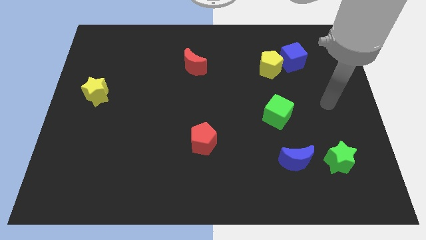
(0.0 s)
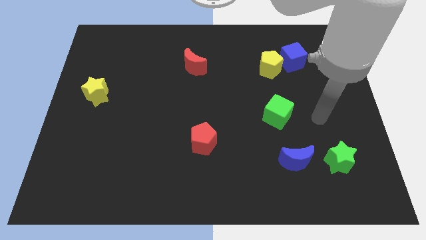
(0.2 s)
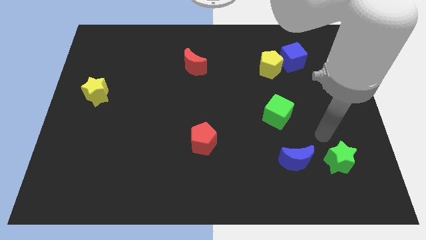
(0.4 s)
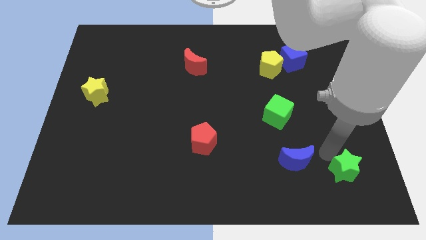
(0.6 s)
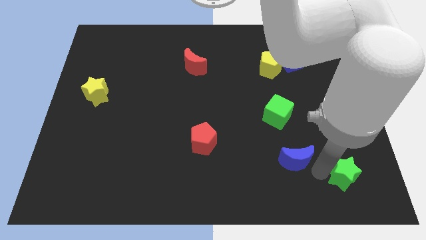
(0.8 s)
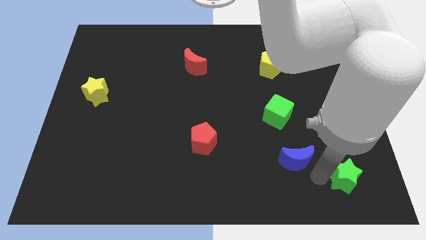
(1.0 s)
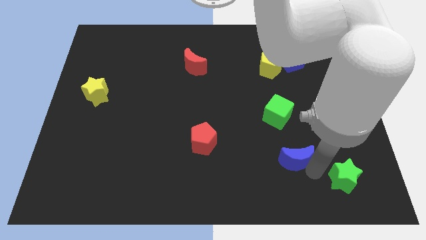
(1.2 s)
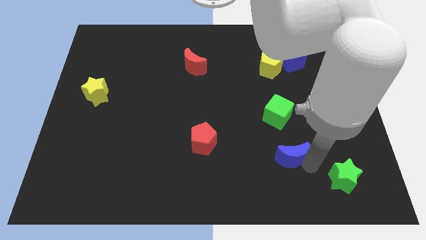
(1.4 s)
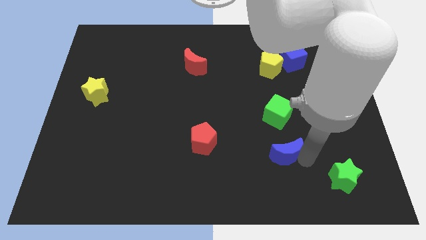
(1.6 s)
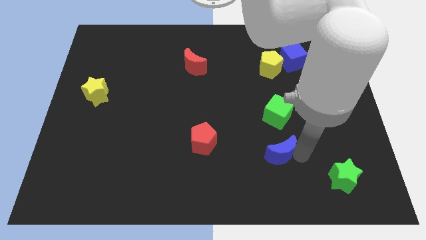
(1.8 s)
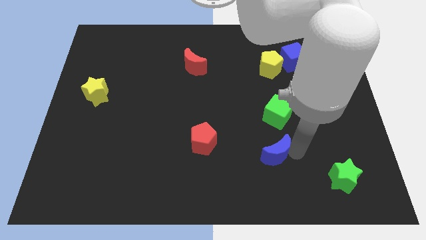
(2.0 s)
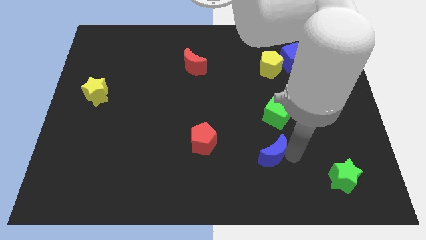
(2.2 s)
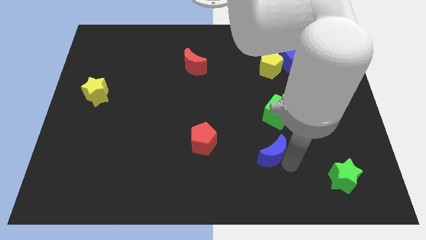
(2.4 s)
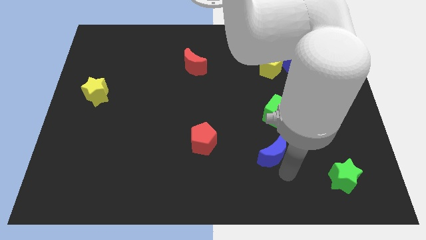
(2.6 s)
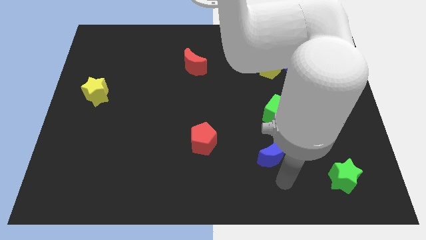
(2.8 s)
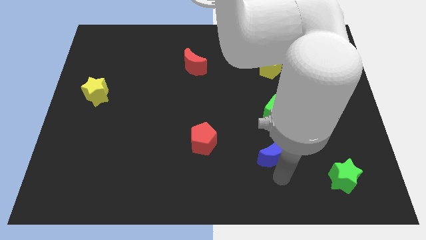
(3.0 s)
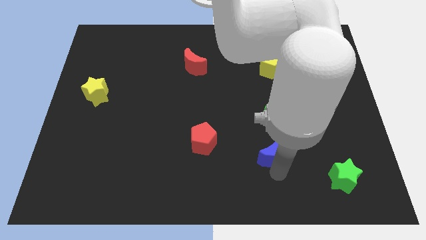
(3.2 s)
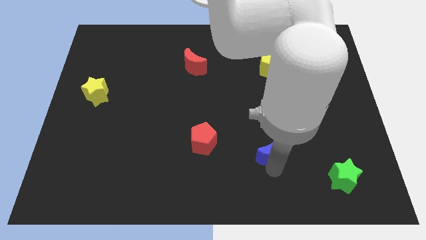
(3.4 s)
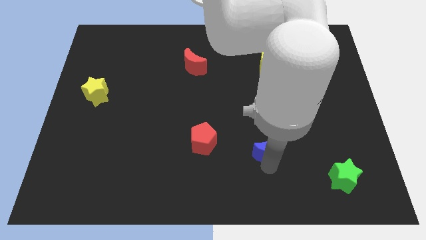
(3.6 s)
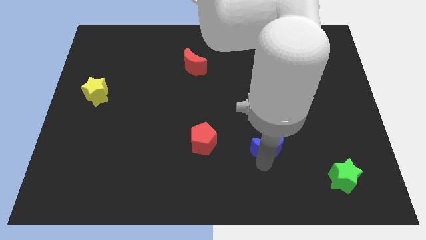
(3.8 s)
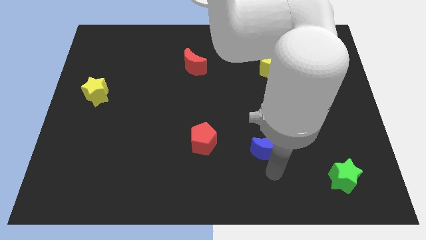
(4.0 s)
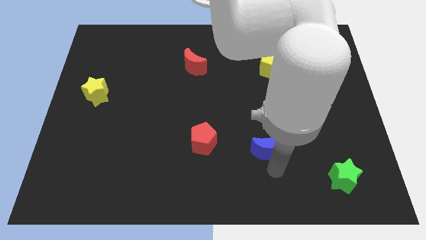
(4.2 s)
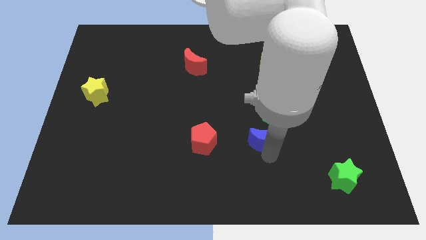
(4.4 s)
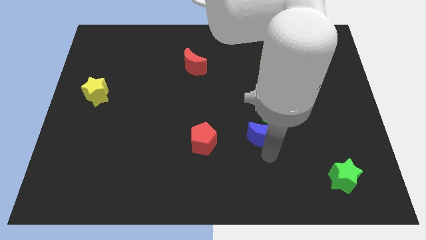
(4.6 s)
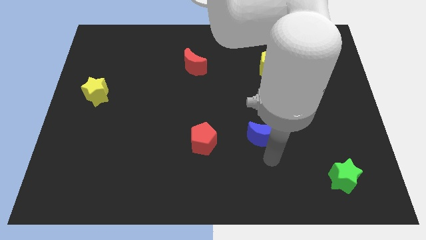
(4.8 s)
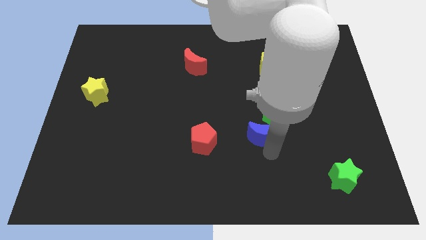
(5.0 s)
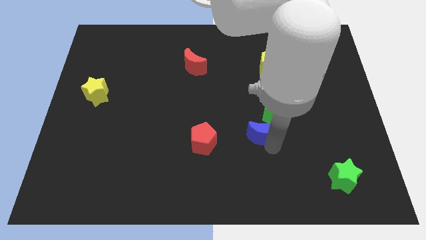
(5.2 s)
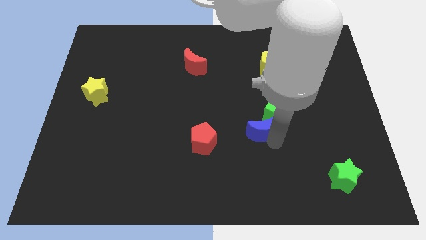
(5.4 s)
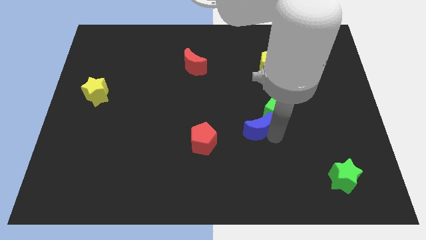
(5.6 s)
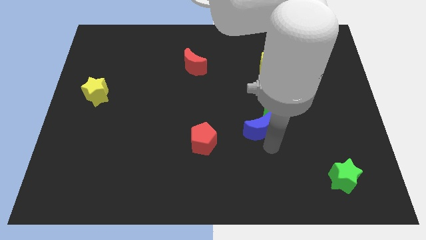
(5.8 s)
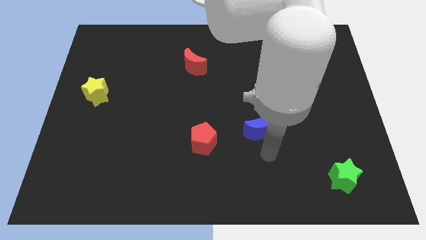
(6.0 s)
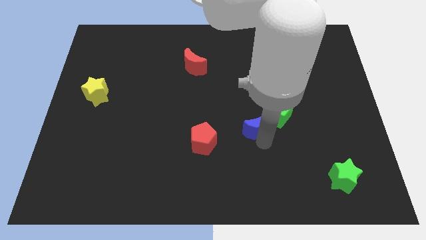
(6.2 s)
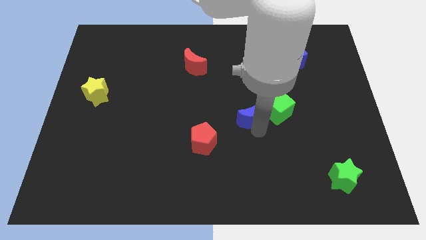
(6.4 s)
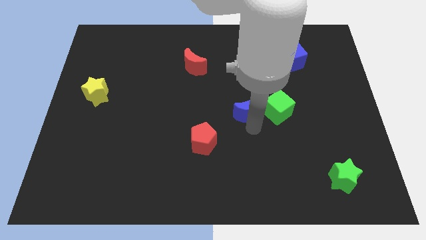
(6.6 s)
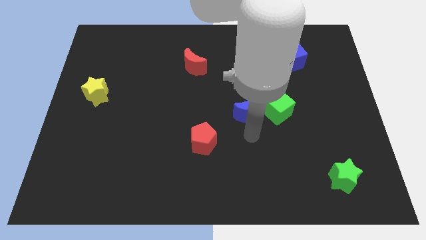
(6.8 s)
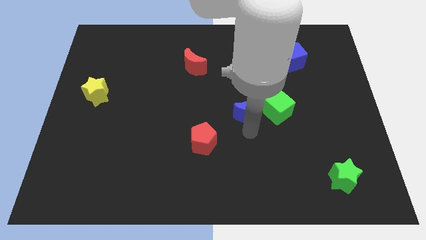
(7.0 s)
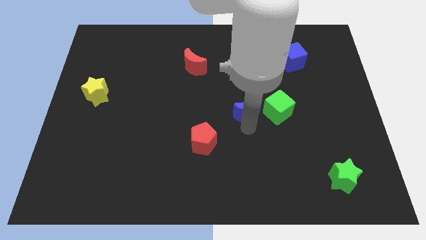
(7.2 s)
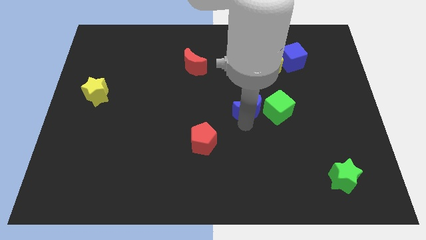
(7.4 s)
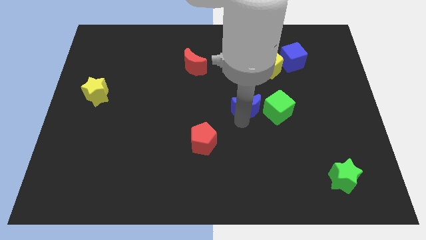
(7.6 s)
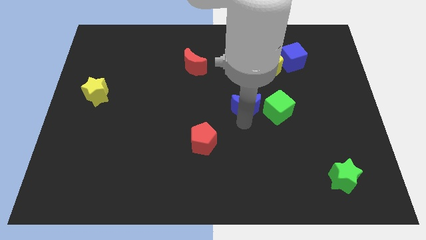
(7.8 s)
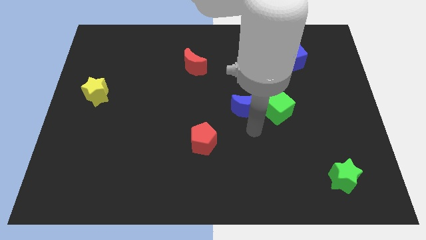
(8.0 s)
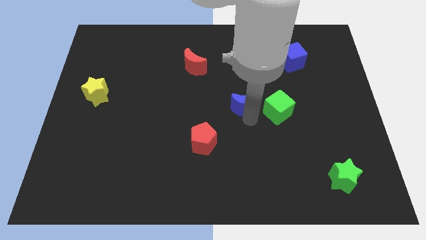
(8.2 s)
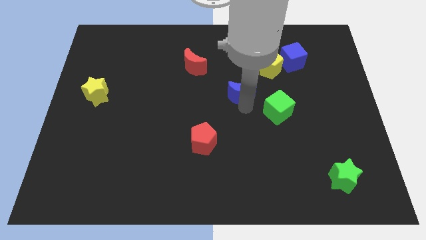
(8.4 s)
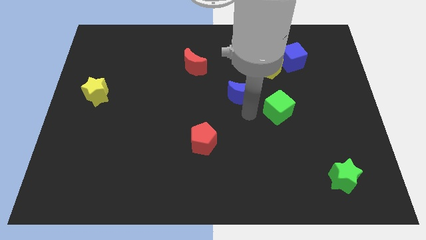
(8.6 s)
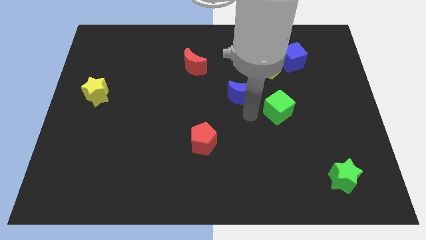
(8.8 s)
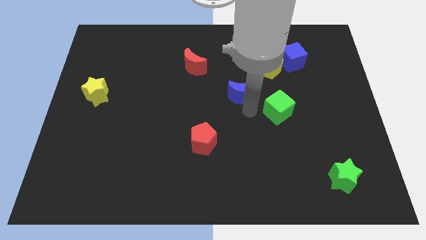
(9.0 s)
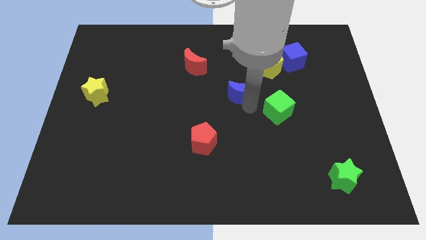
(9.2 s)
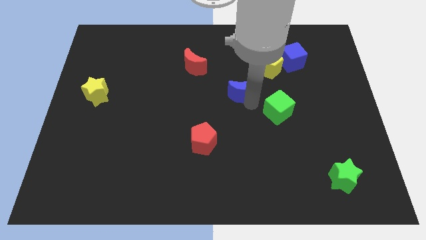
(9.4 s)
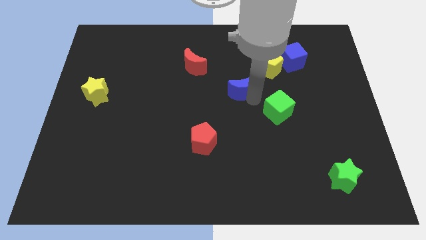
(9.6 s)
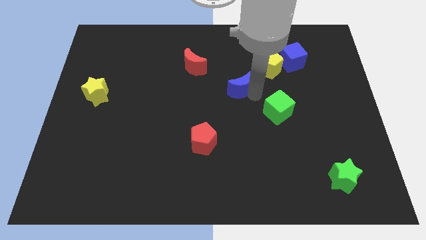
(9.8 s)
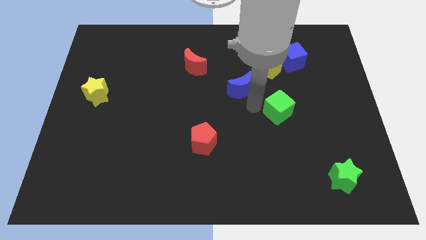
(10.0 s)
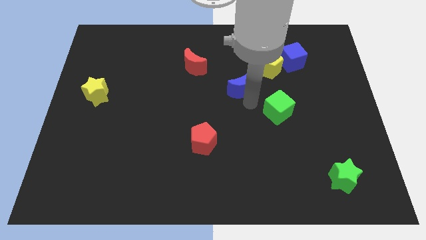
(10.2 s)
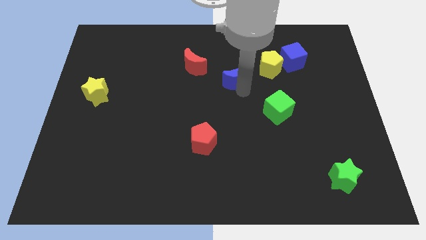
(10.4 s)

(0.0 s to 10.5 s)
slide the blue moon left of the yellow pentagon

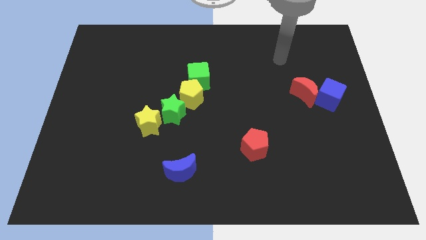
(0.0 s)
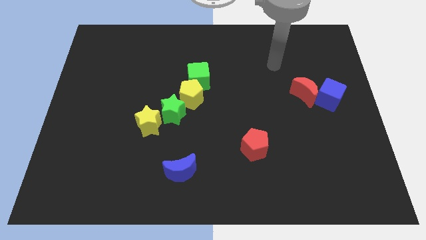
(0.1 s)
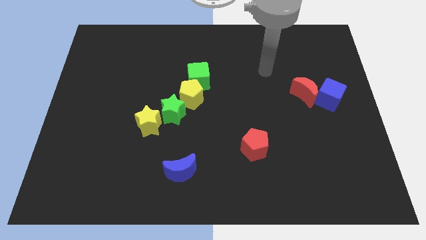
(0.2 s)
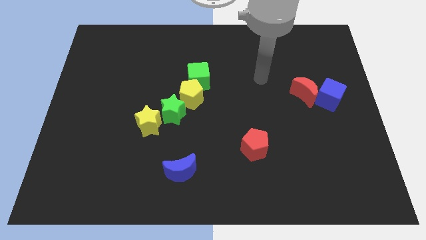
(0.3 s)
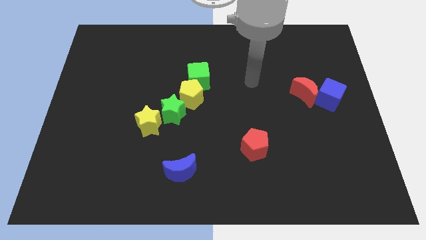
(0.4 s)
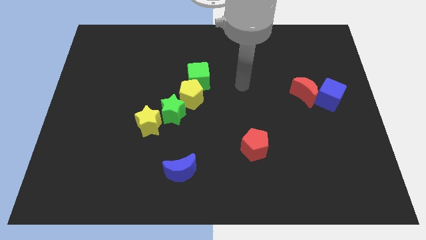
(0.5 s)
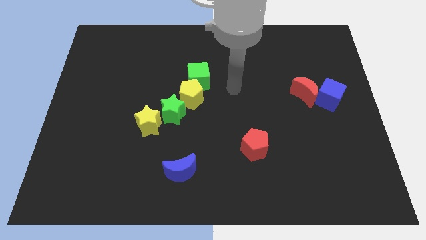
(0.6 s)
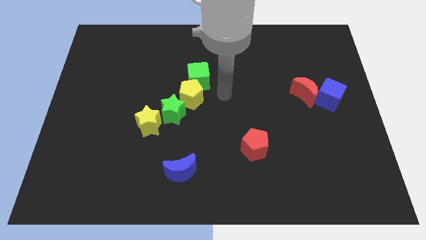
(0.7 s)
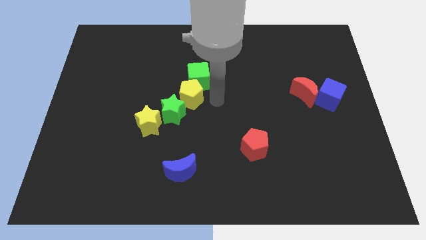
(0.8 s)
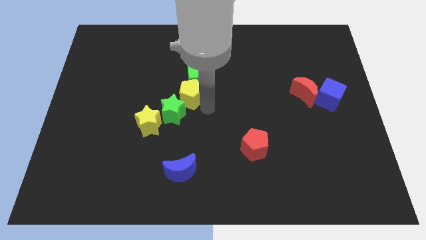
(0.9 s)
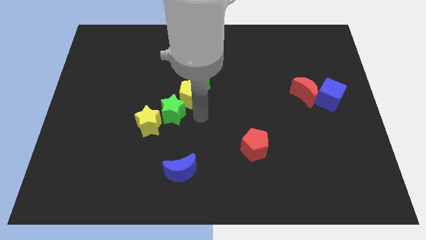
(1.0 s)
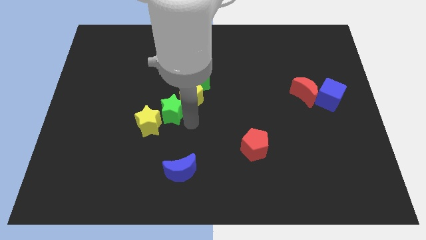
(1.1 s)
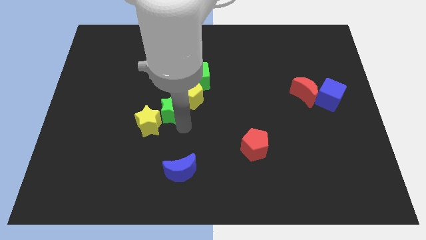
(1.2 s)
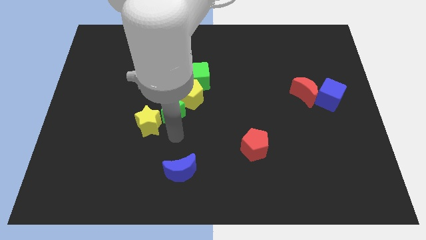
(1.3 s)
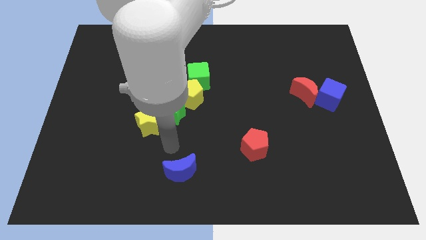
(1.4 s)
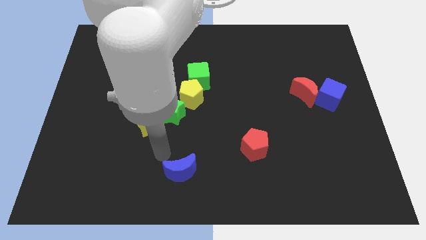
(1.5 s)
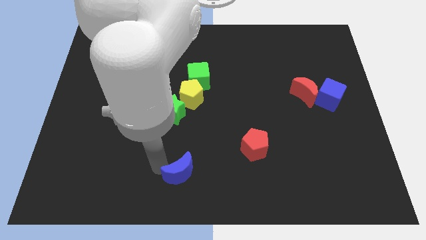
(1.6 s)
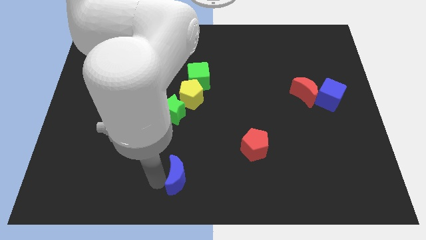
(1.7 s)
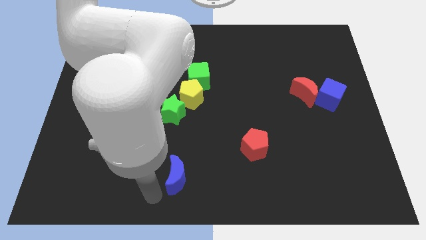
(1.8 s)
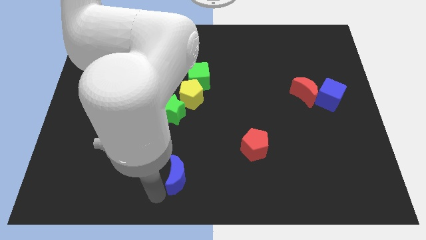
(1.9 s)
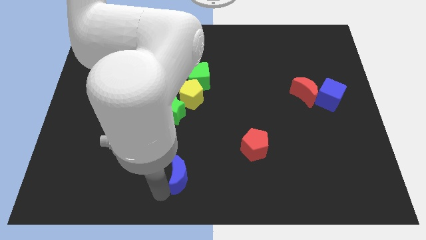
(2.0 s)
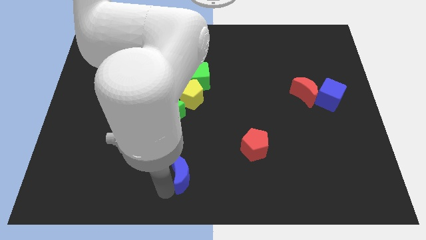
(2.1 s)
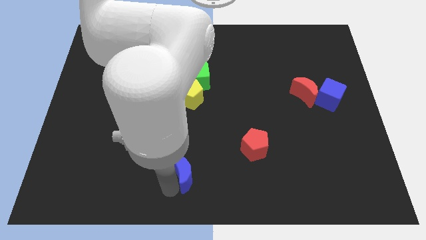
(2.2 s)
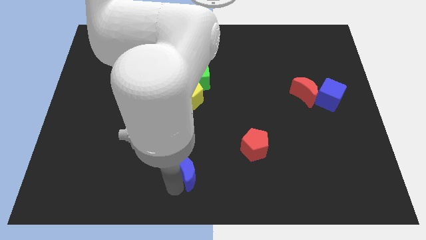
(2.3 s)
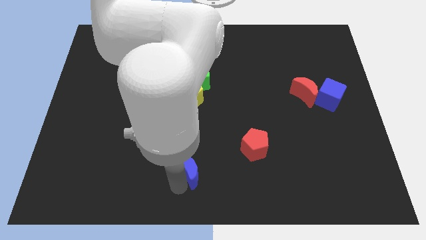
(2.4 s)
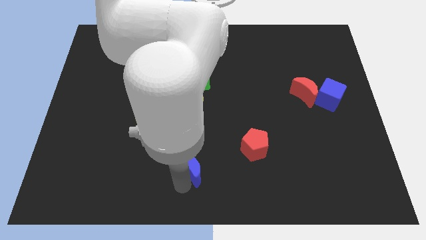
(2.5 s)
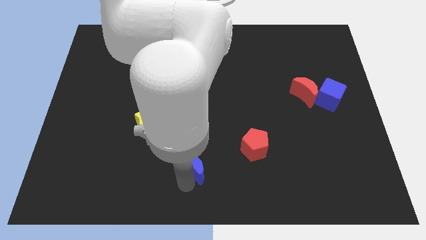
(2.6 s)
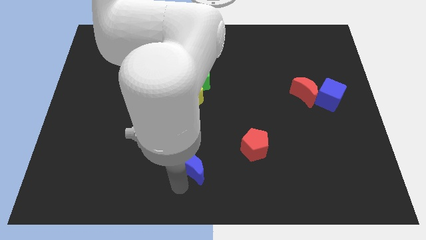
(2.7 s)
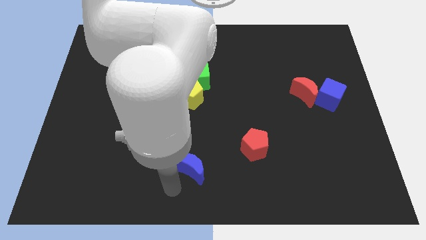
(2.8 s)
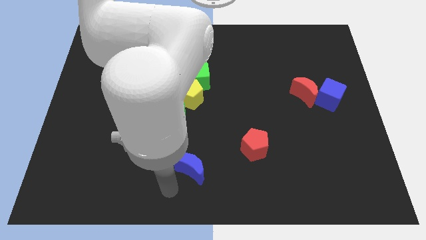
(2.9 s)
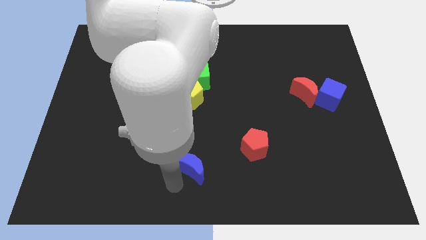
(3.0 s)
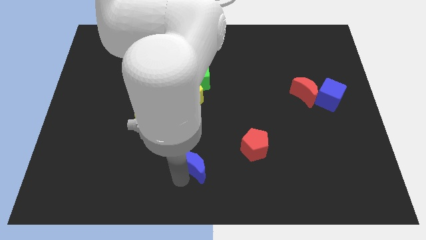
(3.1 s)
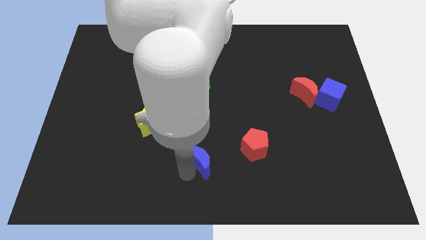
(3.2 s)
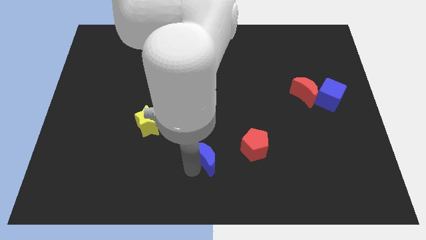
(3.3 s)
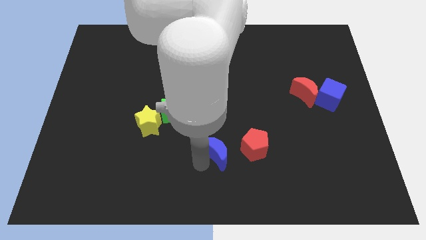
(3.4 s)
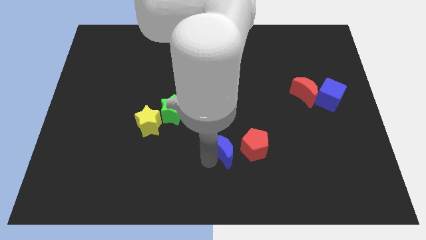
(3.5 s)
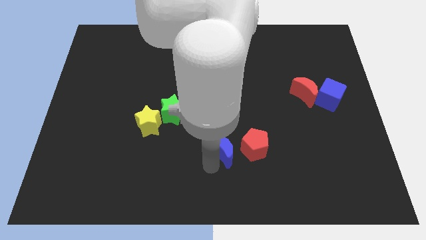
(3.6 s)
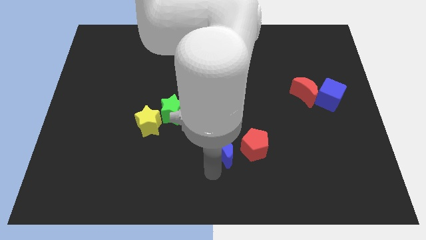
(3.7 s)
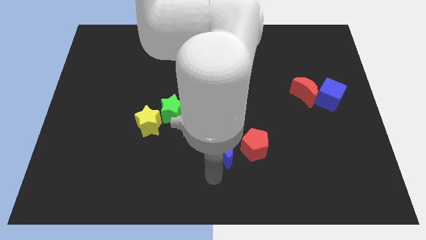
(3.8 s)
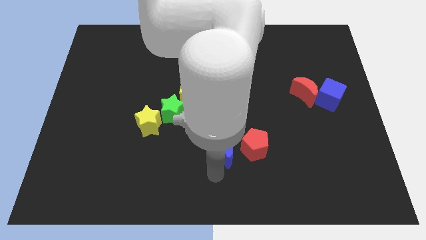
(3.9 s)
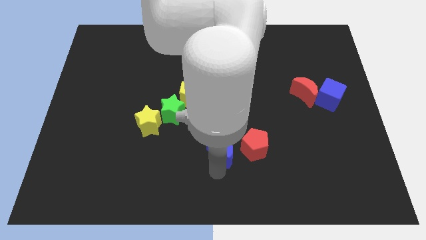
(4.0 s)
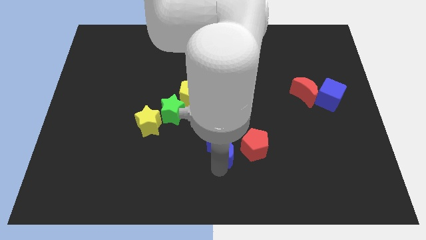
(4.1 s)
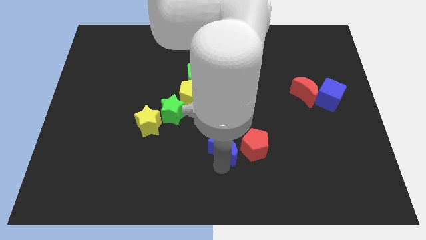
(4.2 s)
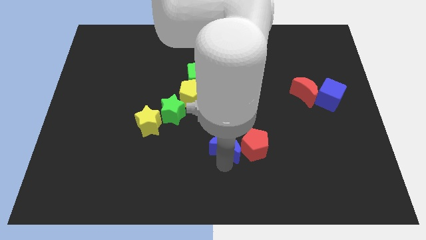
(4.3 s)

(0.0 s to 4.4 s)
push the blue moon diagonally up and to the left of the red pentagon
